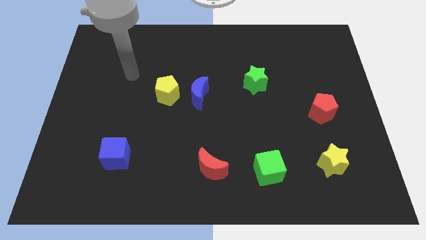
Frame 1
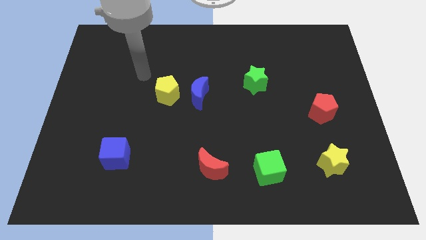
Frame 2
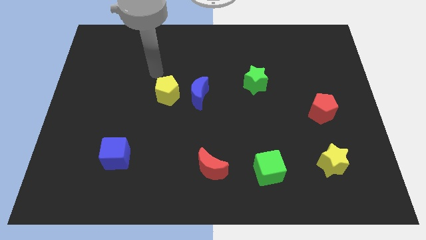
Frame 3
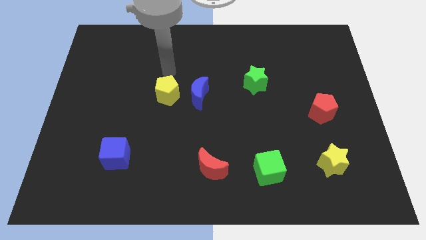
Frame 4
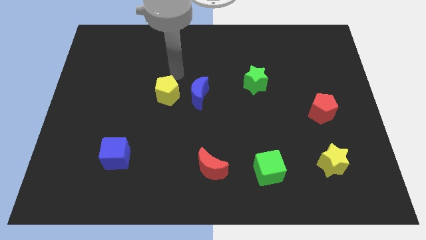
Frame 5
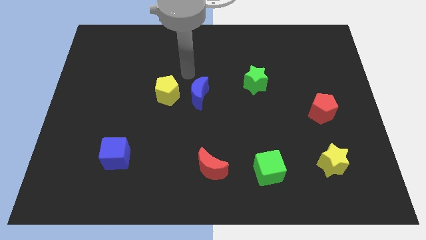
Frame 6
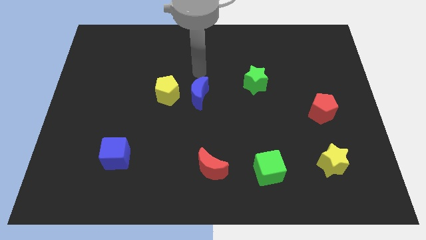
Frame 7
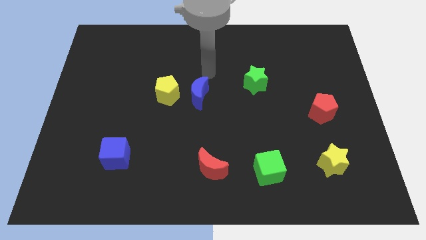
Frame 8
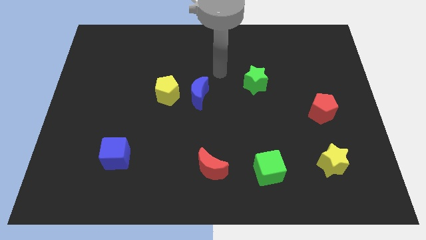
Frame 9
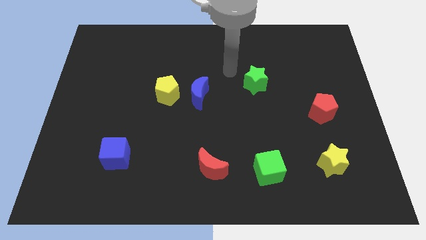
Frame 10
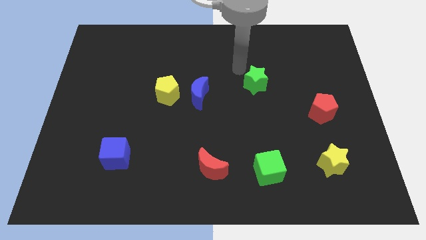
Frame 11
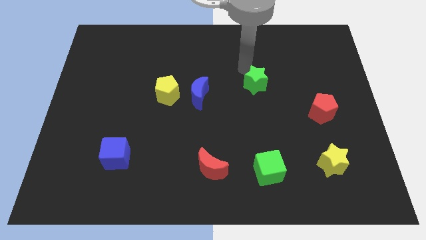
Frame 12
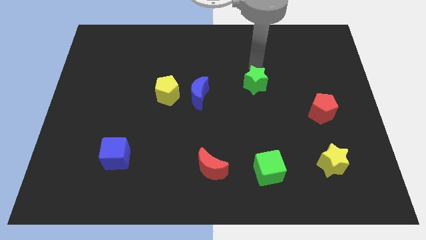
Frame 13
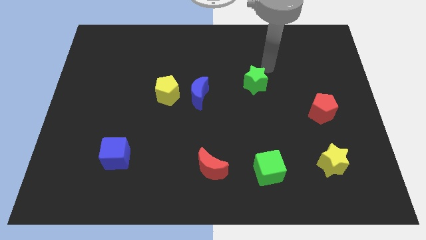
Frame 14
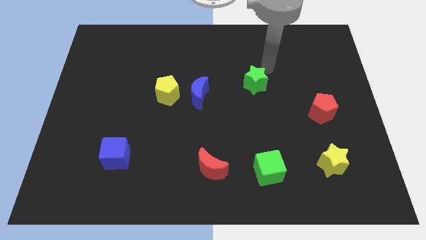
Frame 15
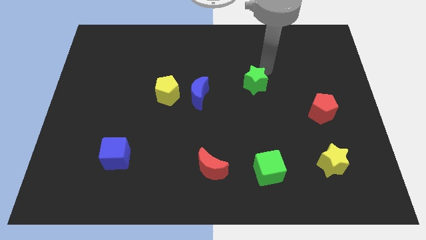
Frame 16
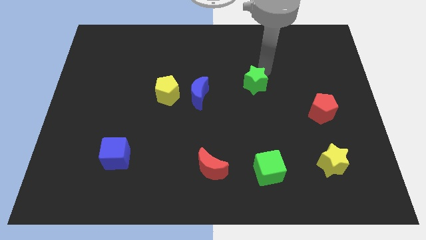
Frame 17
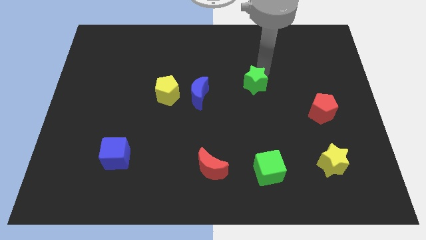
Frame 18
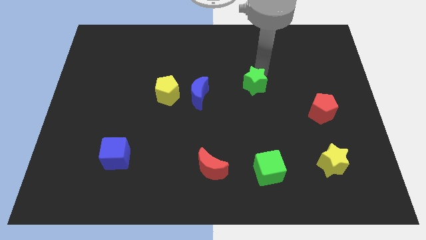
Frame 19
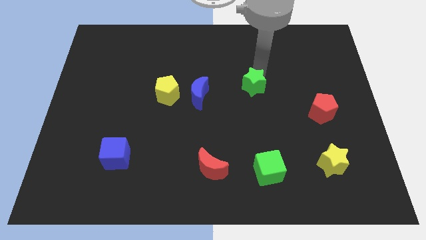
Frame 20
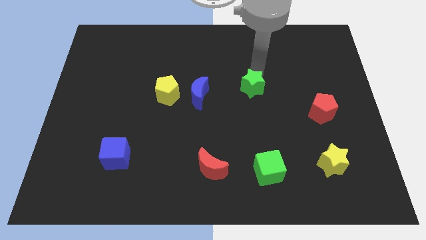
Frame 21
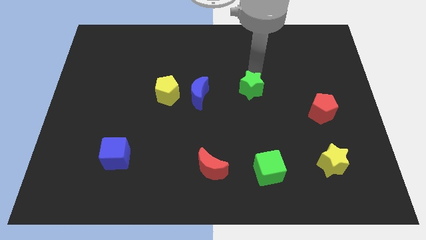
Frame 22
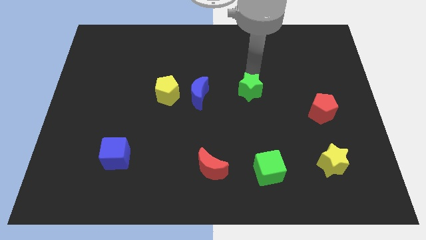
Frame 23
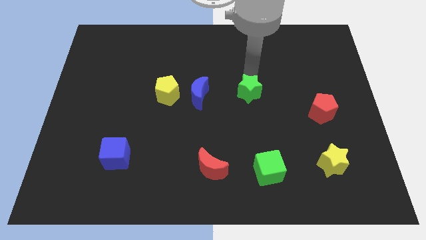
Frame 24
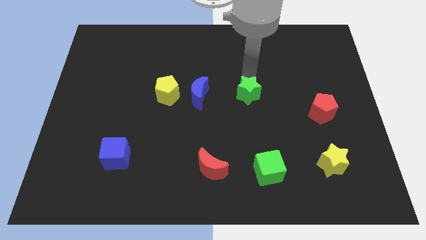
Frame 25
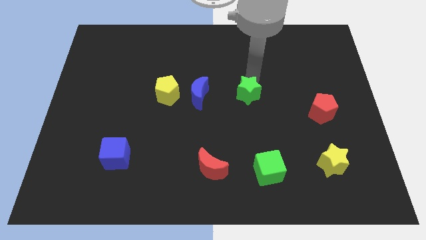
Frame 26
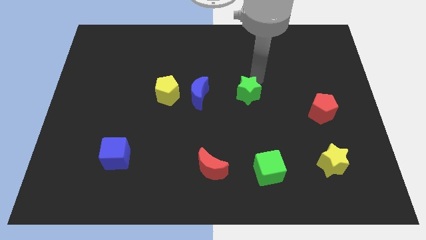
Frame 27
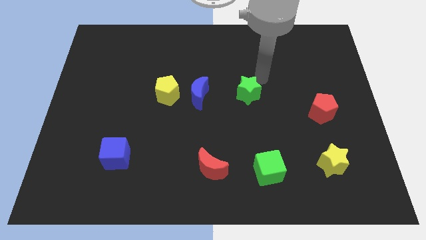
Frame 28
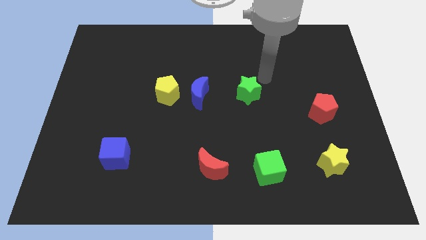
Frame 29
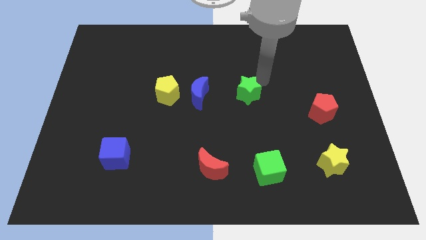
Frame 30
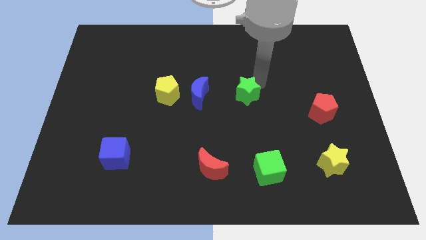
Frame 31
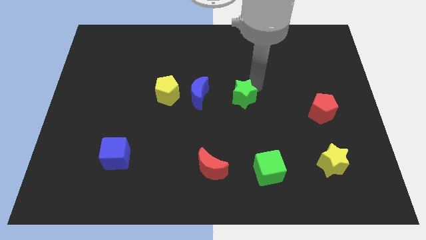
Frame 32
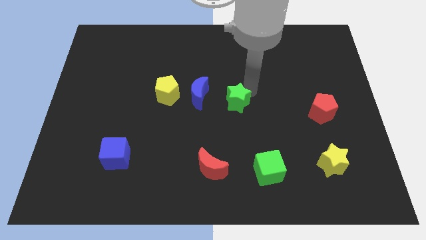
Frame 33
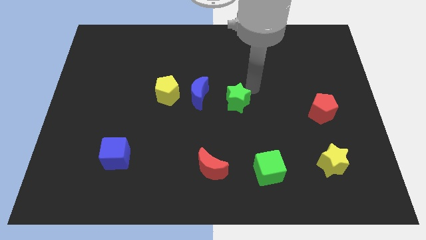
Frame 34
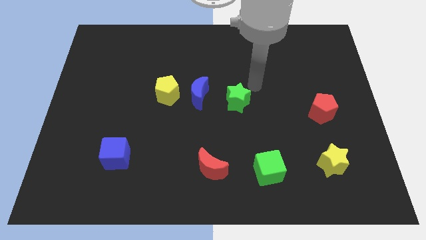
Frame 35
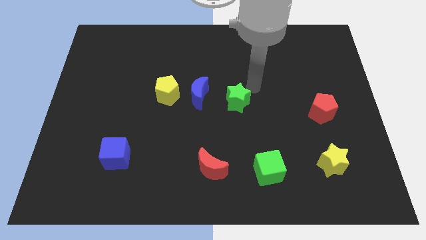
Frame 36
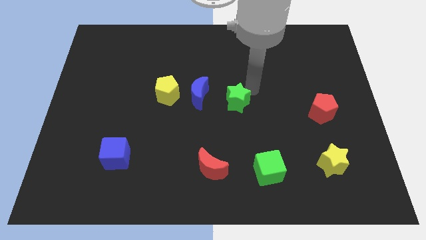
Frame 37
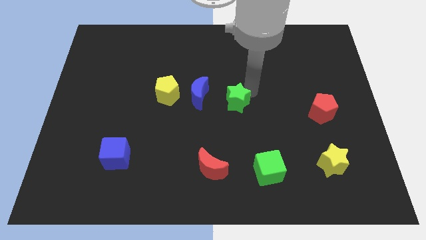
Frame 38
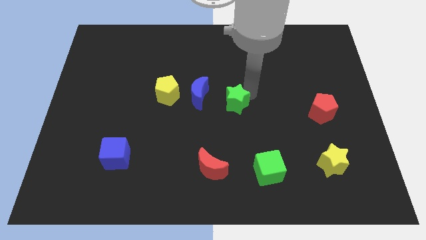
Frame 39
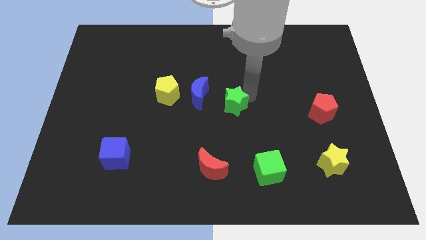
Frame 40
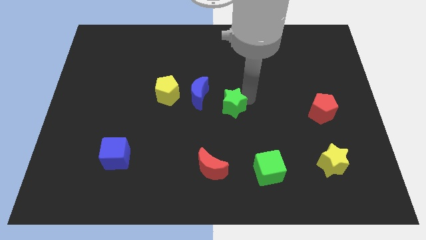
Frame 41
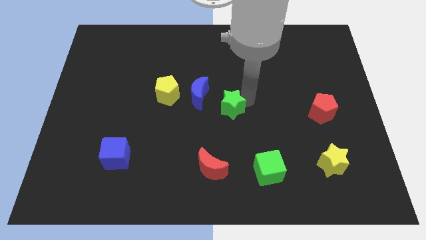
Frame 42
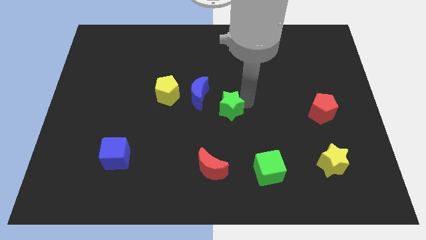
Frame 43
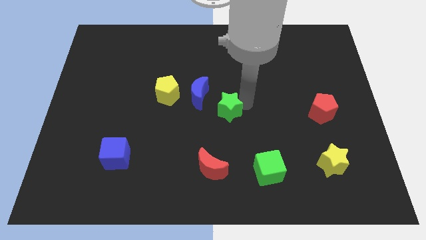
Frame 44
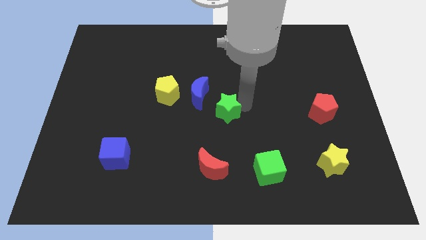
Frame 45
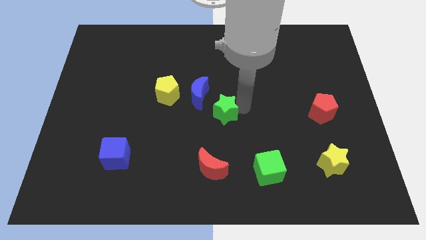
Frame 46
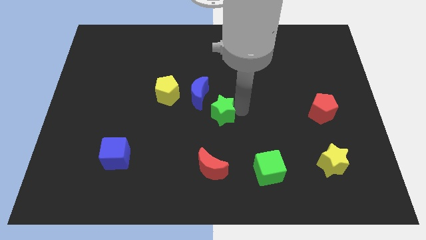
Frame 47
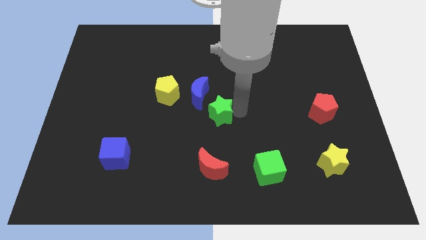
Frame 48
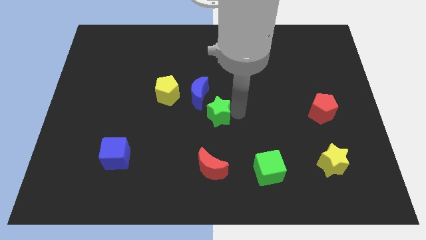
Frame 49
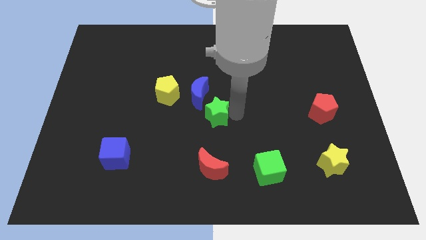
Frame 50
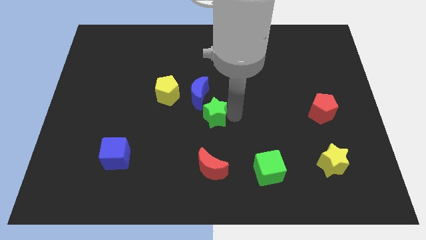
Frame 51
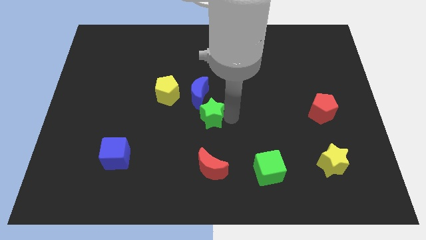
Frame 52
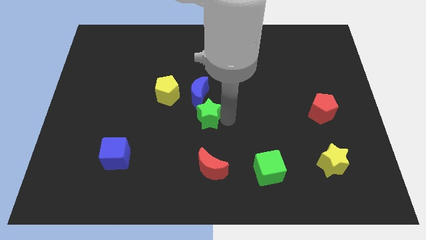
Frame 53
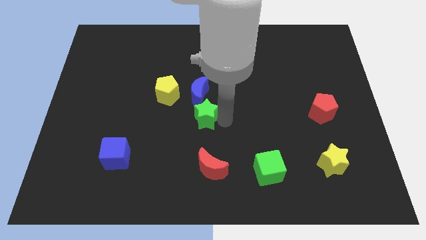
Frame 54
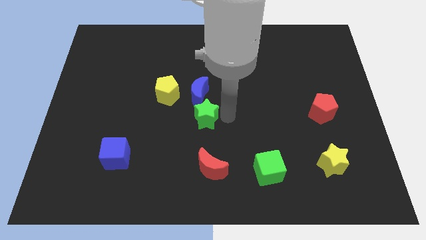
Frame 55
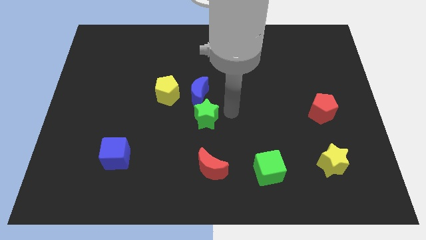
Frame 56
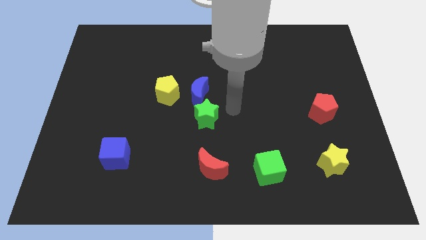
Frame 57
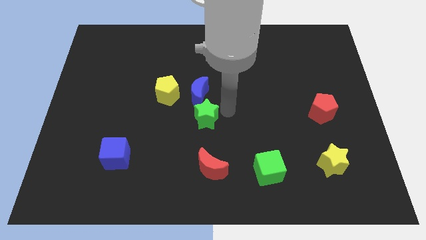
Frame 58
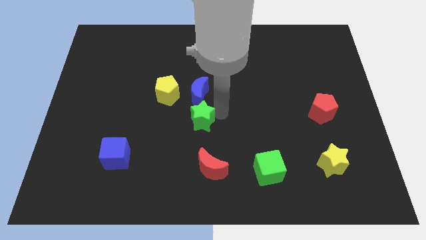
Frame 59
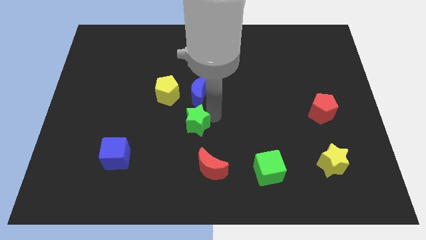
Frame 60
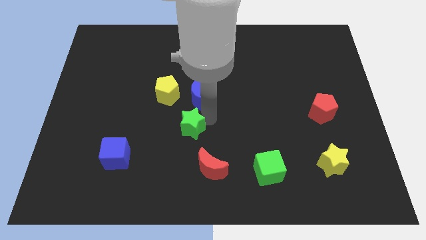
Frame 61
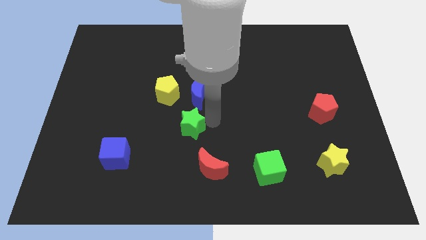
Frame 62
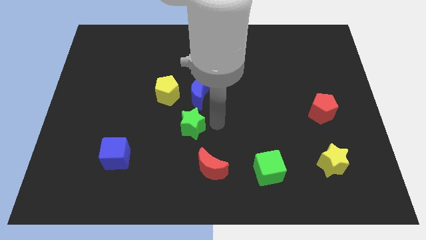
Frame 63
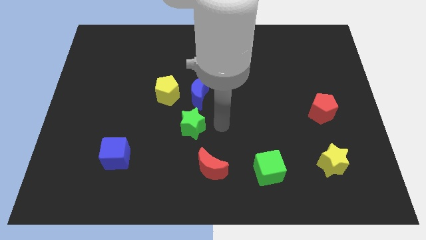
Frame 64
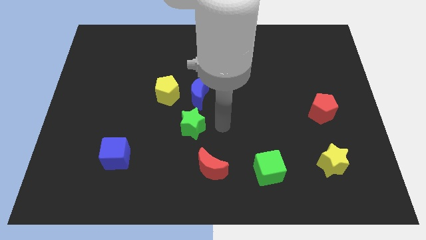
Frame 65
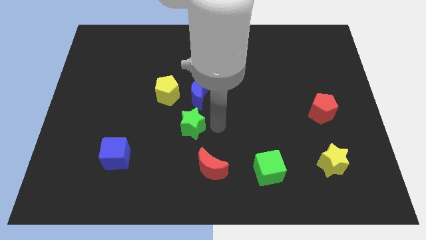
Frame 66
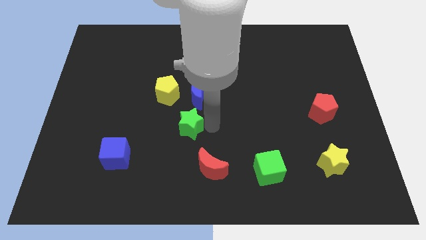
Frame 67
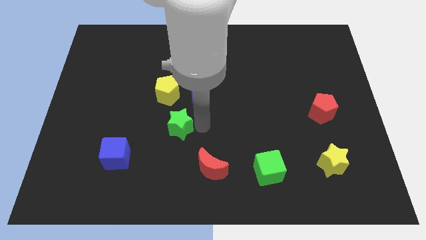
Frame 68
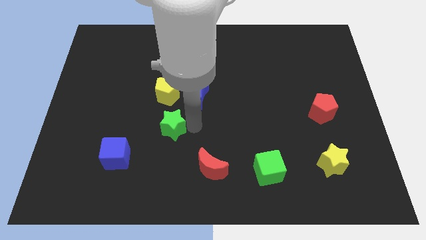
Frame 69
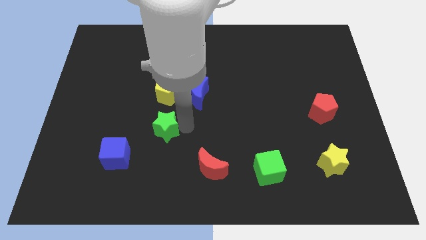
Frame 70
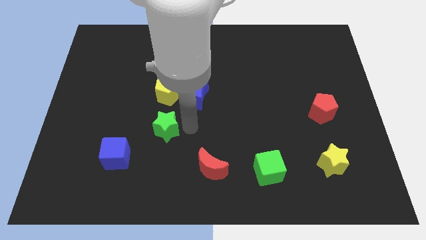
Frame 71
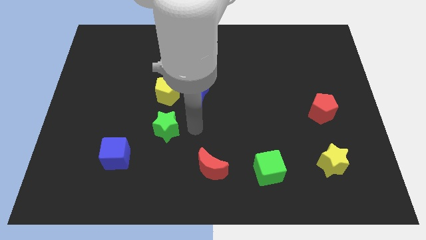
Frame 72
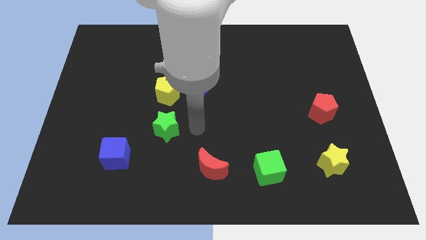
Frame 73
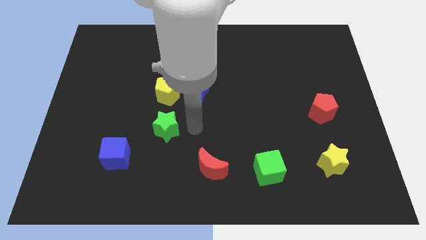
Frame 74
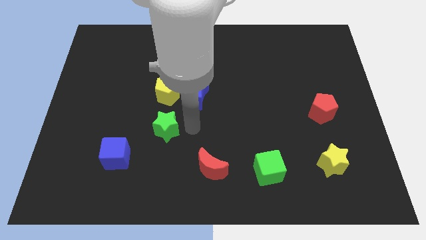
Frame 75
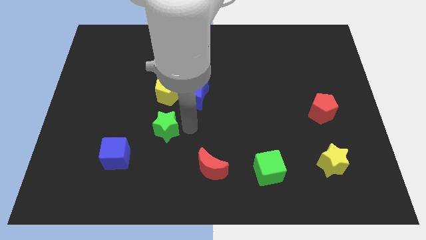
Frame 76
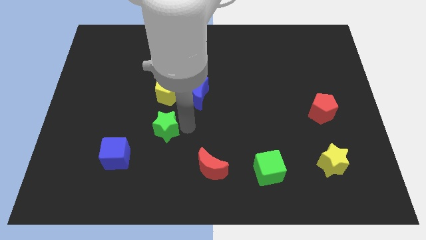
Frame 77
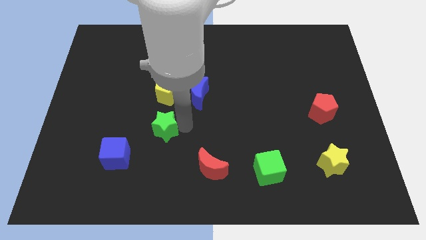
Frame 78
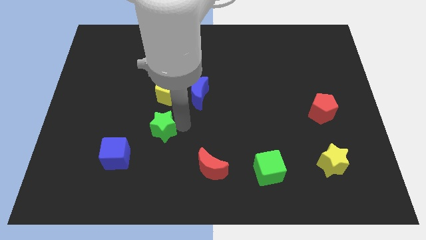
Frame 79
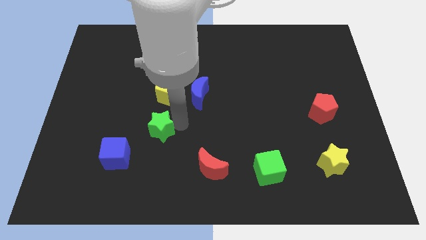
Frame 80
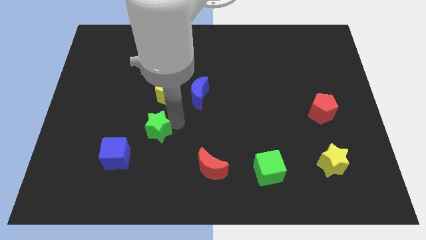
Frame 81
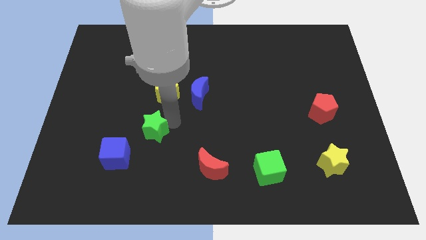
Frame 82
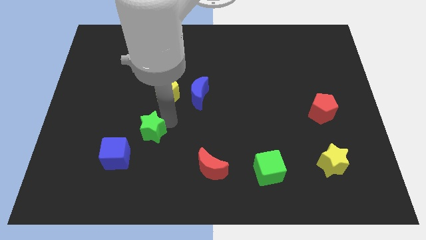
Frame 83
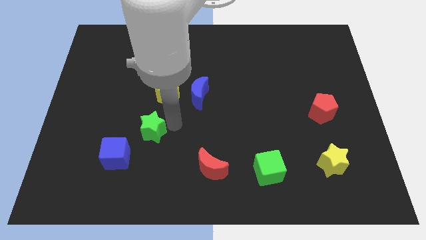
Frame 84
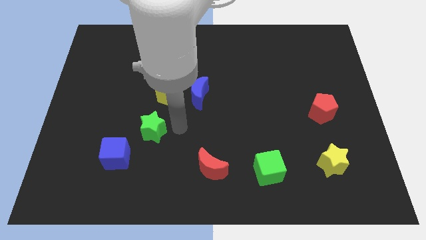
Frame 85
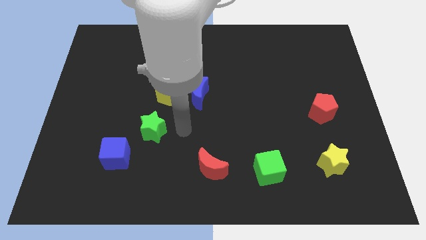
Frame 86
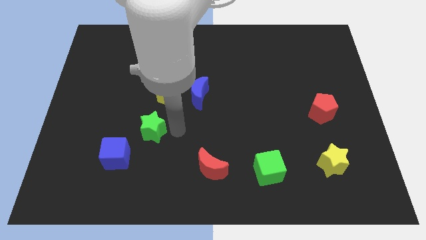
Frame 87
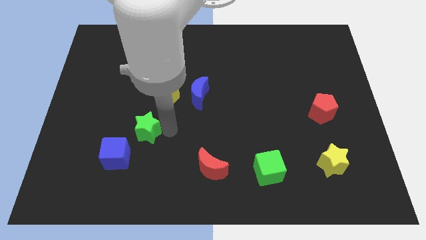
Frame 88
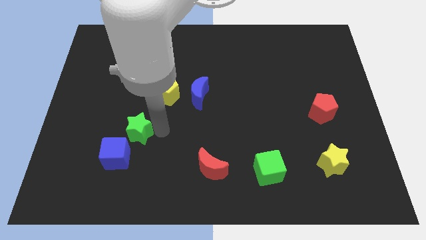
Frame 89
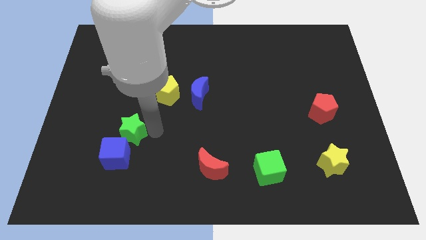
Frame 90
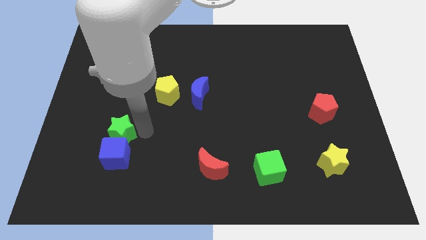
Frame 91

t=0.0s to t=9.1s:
put the green star diagonally up and to the left of the blue cube
